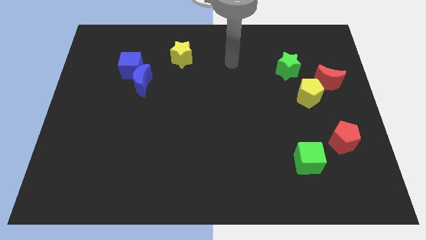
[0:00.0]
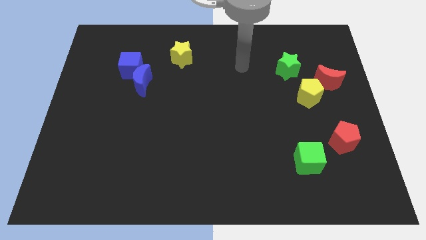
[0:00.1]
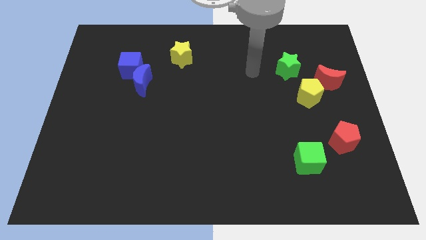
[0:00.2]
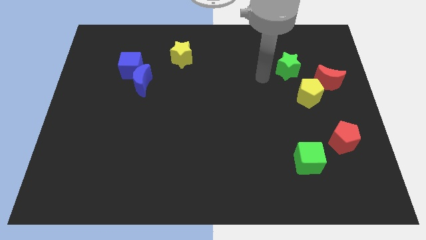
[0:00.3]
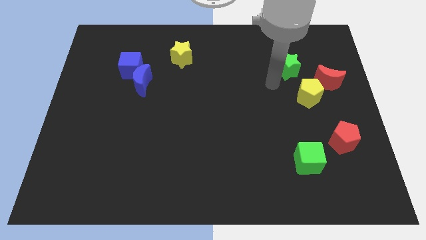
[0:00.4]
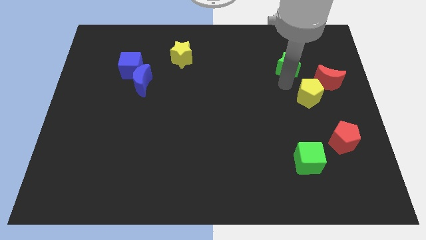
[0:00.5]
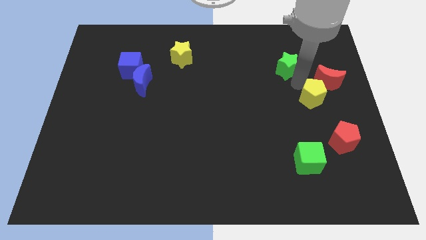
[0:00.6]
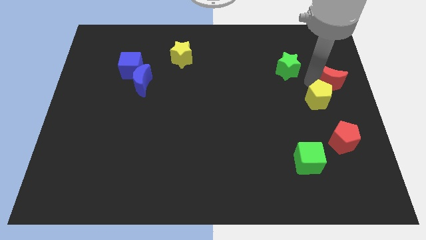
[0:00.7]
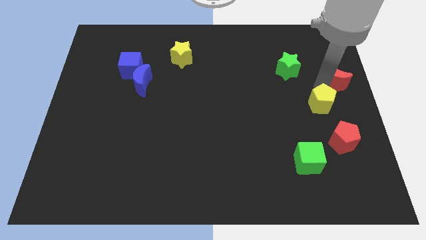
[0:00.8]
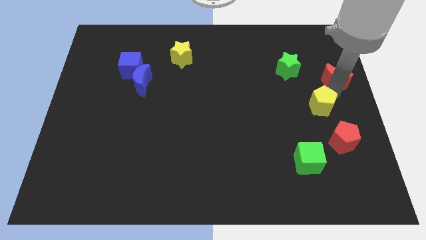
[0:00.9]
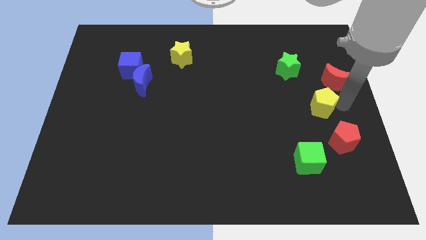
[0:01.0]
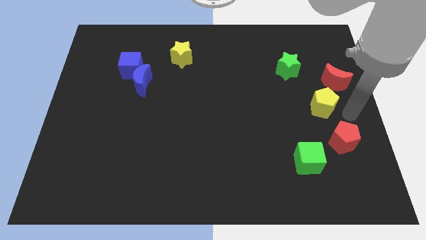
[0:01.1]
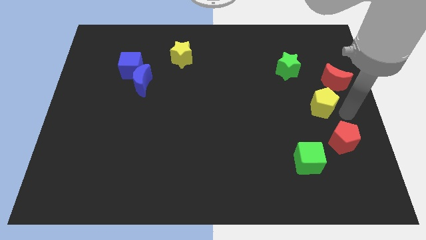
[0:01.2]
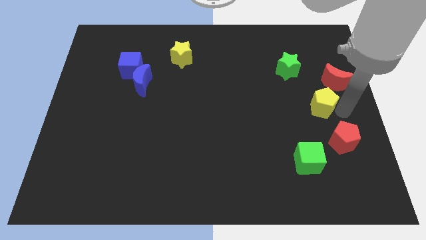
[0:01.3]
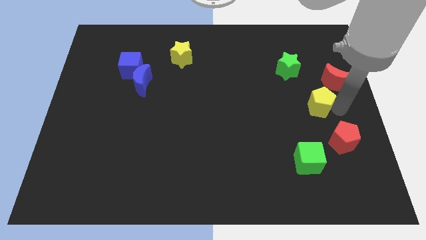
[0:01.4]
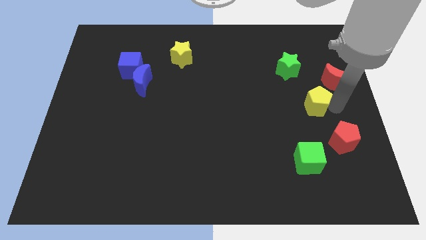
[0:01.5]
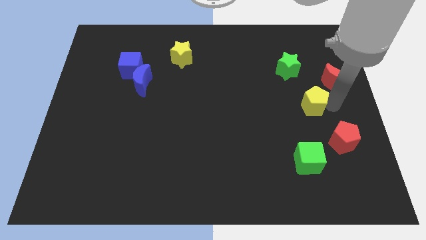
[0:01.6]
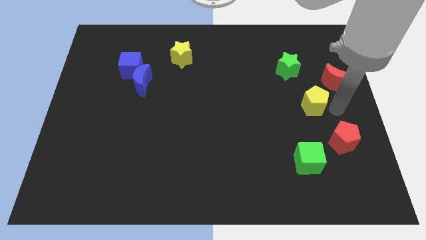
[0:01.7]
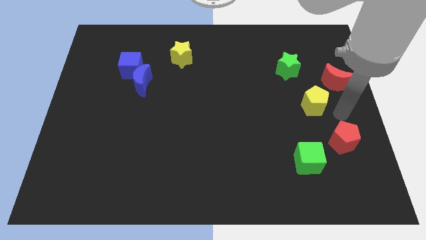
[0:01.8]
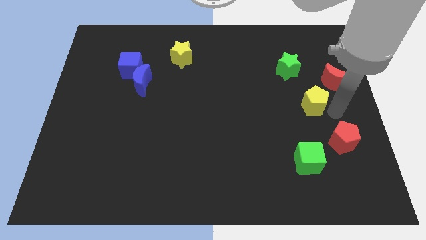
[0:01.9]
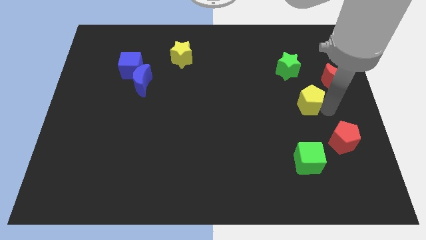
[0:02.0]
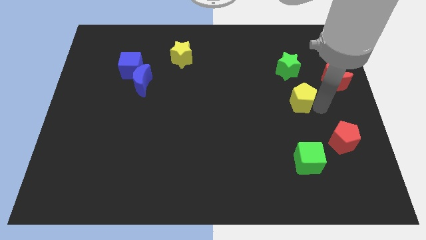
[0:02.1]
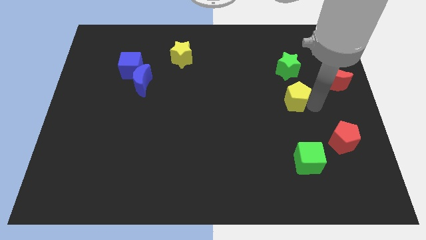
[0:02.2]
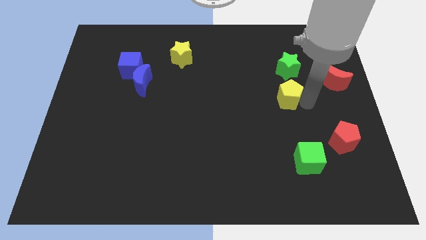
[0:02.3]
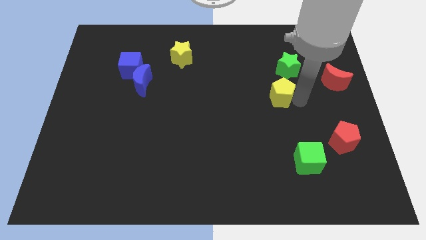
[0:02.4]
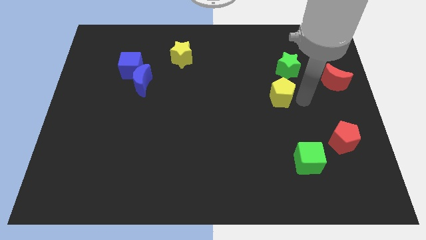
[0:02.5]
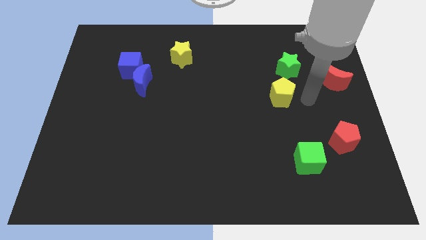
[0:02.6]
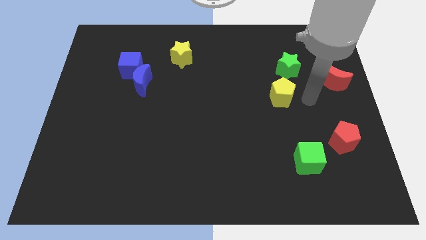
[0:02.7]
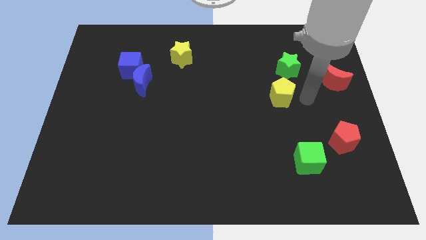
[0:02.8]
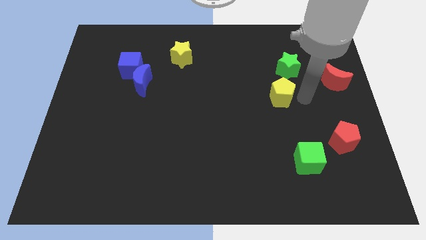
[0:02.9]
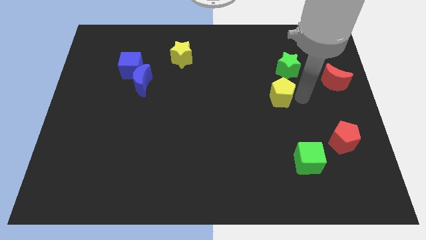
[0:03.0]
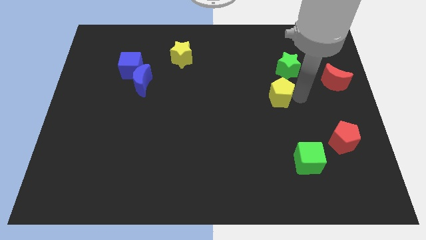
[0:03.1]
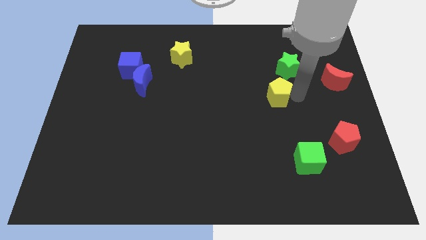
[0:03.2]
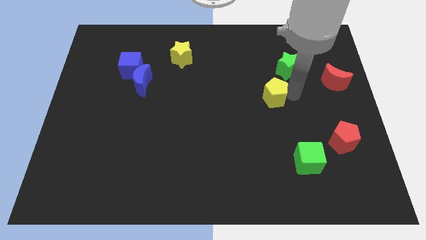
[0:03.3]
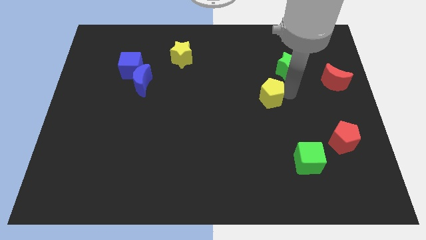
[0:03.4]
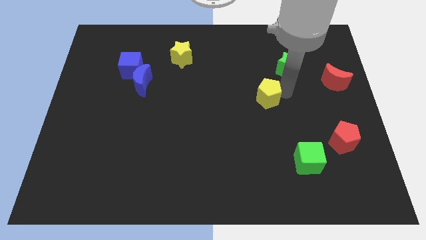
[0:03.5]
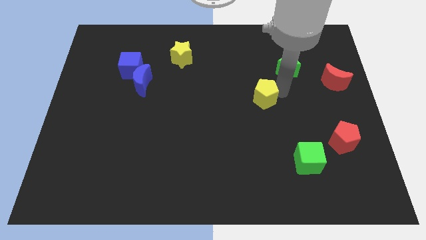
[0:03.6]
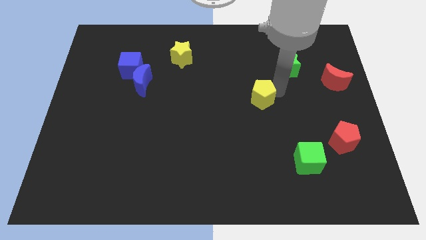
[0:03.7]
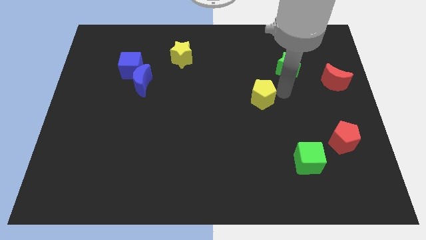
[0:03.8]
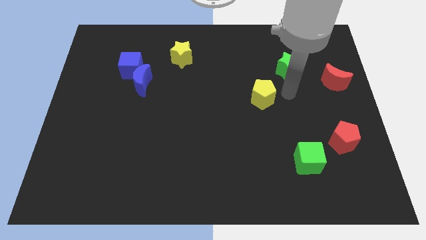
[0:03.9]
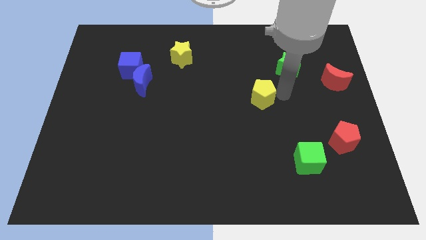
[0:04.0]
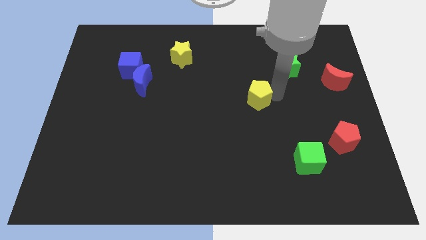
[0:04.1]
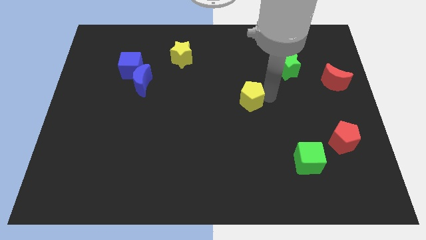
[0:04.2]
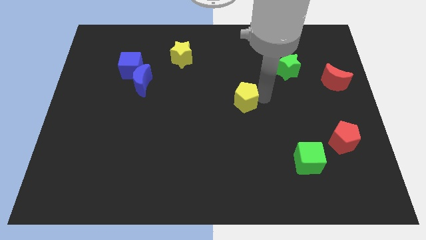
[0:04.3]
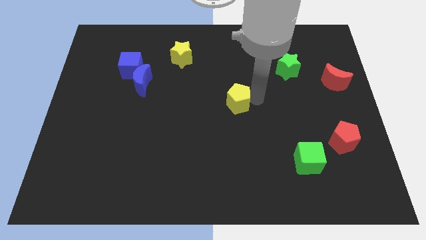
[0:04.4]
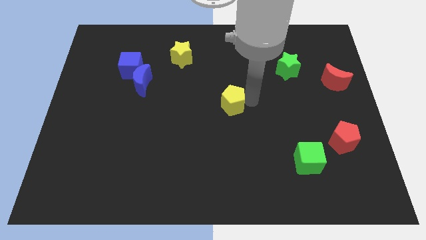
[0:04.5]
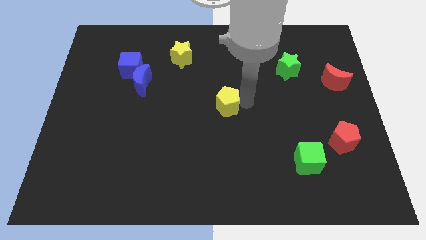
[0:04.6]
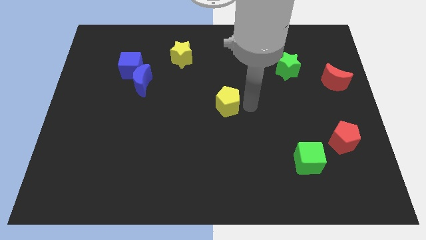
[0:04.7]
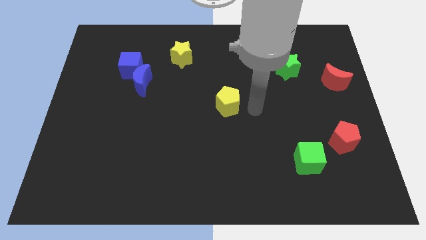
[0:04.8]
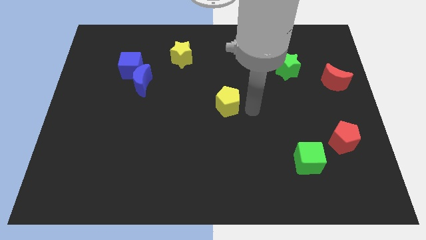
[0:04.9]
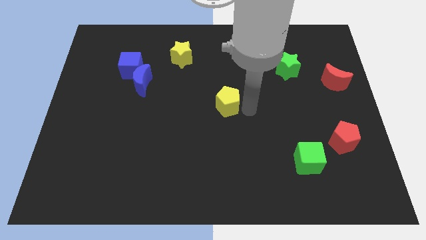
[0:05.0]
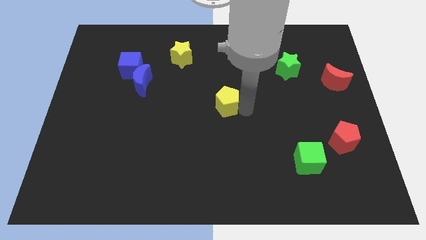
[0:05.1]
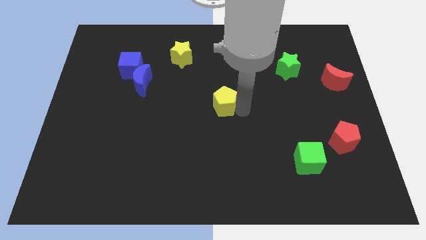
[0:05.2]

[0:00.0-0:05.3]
slide the yellow pentagon left

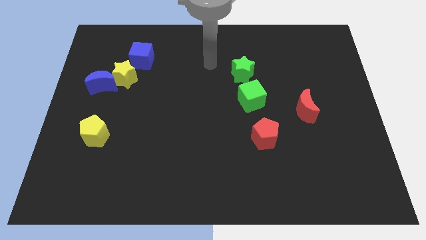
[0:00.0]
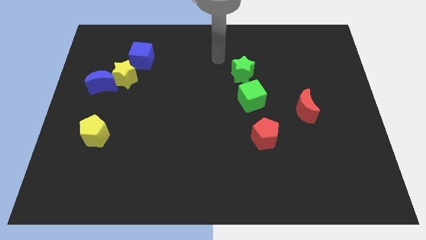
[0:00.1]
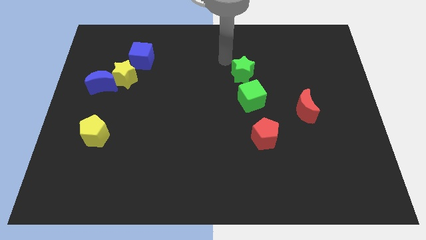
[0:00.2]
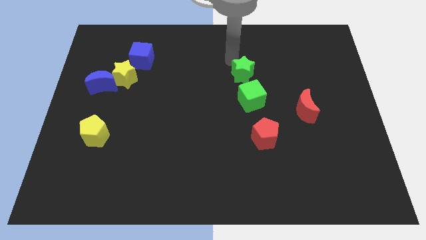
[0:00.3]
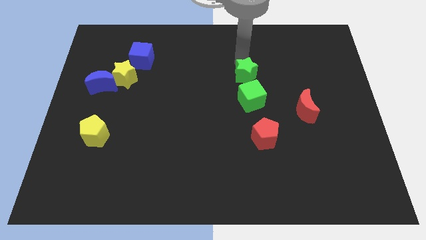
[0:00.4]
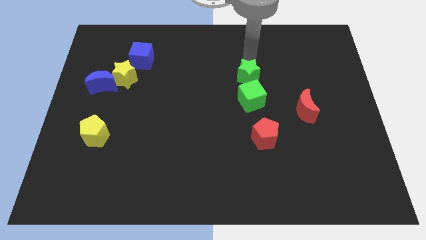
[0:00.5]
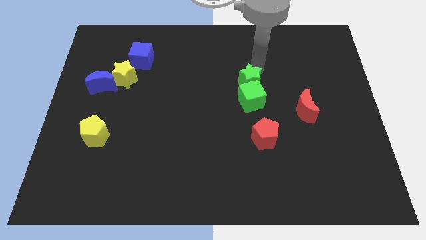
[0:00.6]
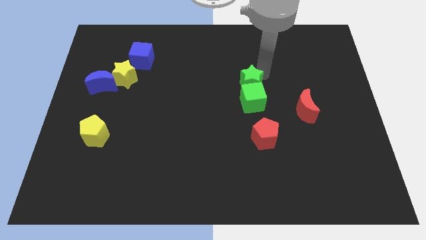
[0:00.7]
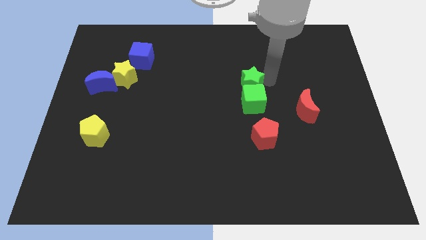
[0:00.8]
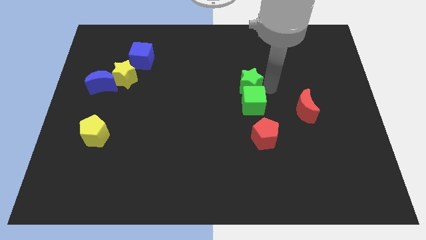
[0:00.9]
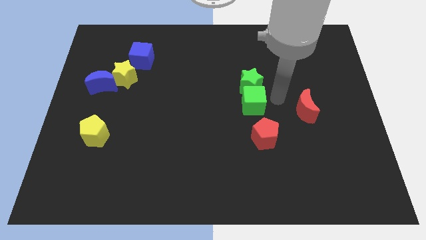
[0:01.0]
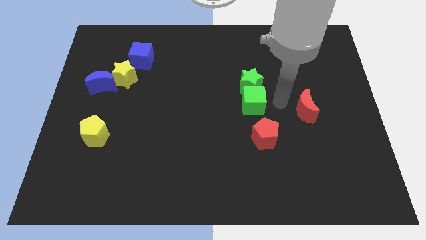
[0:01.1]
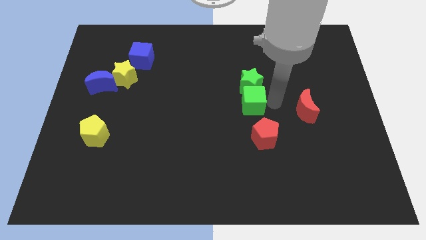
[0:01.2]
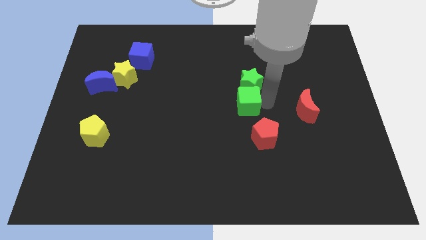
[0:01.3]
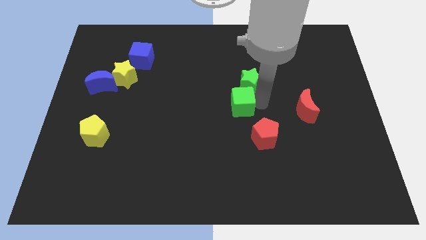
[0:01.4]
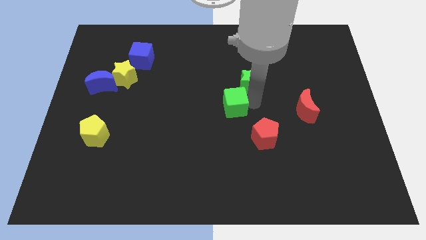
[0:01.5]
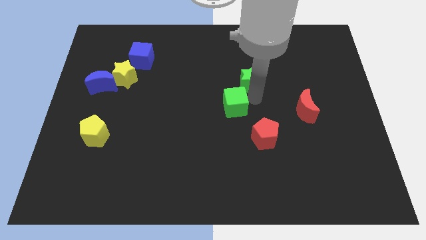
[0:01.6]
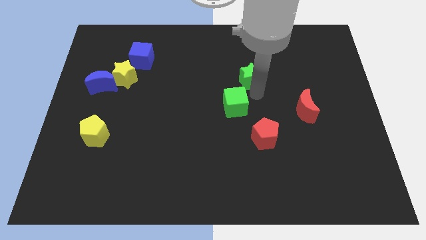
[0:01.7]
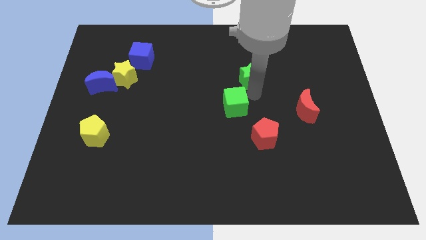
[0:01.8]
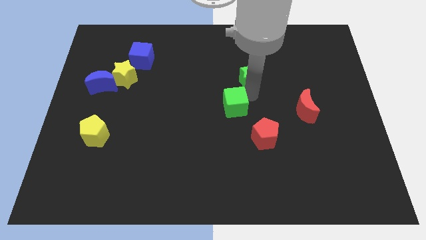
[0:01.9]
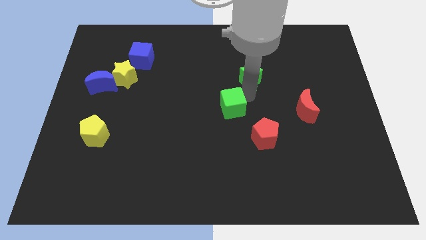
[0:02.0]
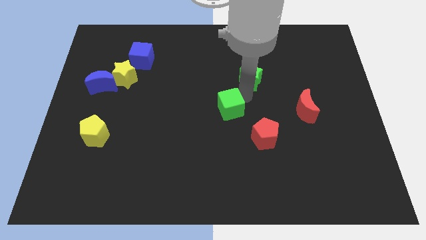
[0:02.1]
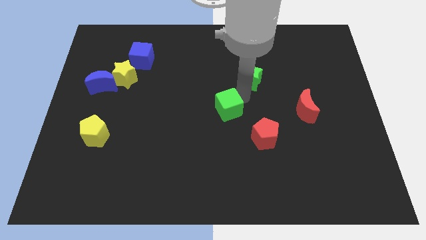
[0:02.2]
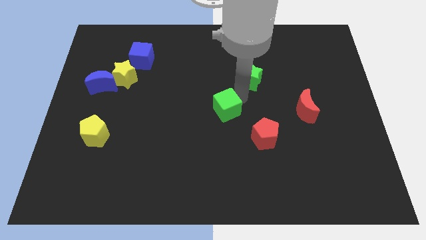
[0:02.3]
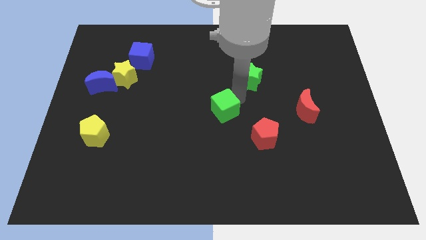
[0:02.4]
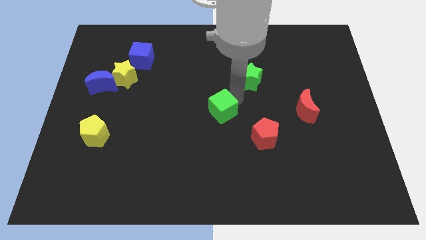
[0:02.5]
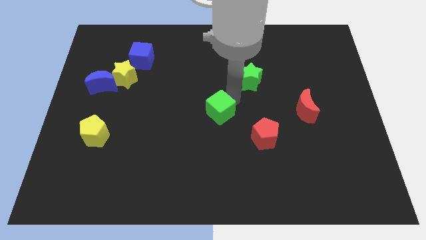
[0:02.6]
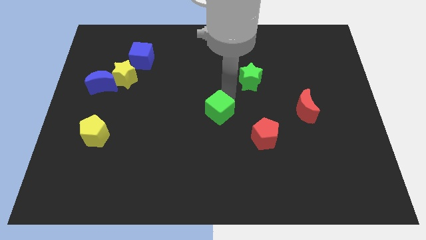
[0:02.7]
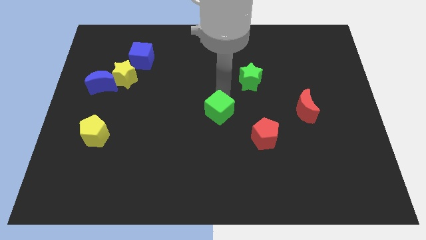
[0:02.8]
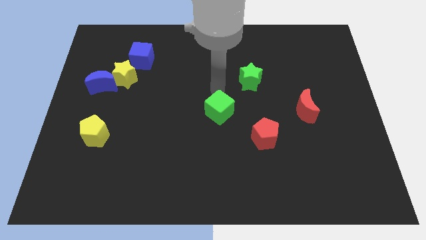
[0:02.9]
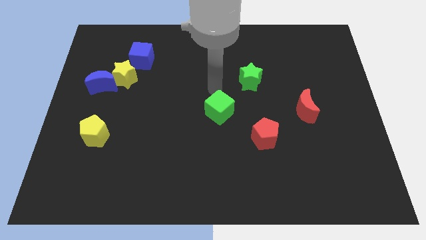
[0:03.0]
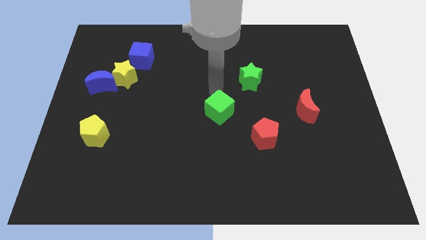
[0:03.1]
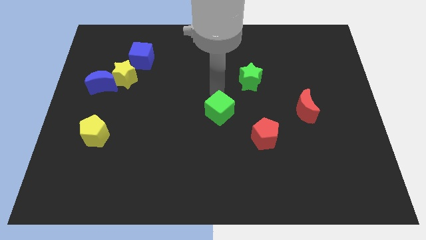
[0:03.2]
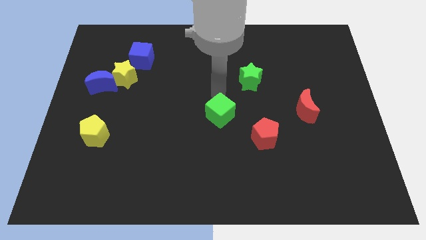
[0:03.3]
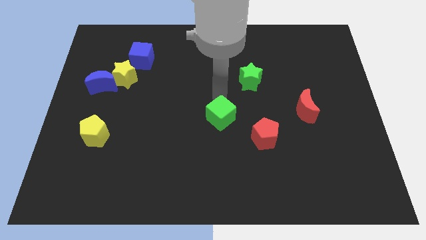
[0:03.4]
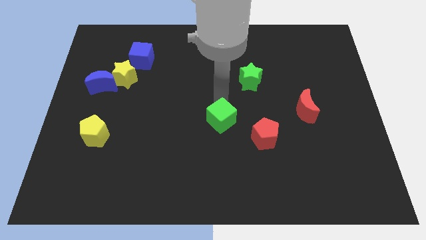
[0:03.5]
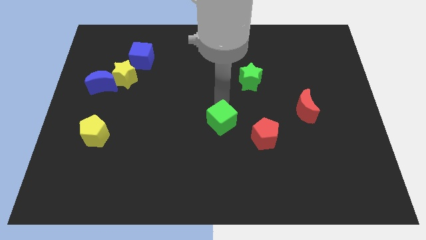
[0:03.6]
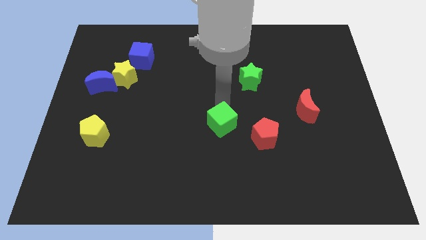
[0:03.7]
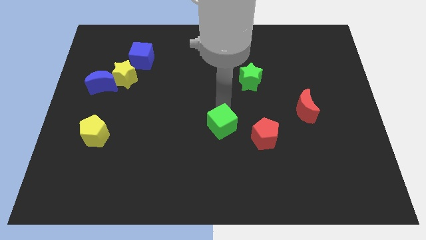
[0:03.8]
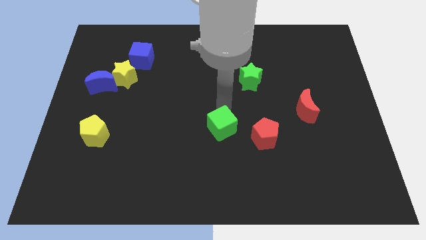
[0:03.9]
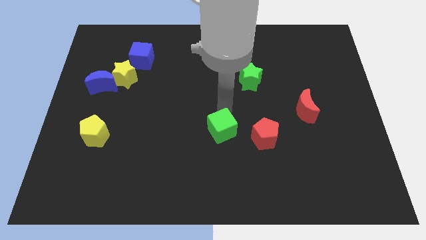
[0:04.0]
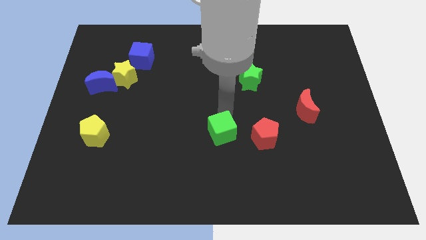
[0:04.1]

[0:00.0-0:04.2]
move the green cube a little down
